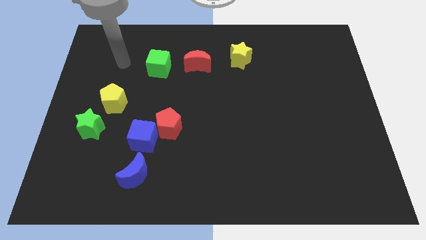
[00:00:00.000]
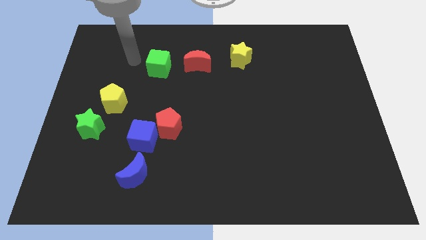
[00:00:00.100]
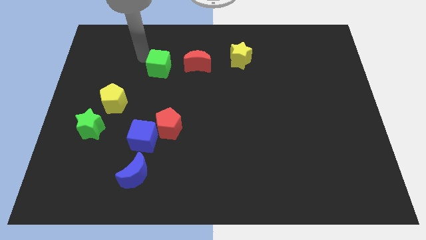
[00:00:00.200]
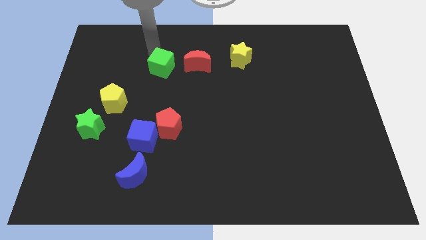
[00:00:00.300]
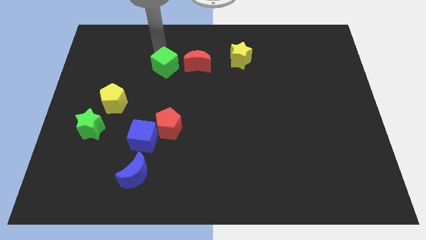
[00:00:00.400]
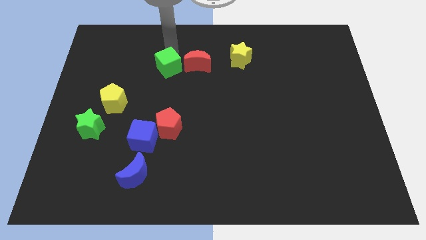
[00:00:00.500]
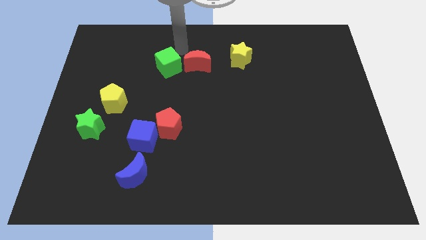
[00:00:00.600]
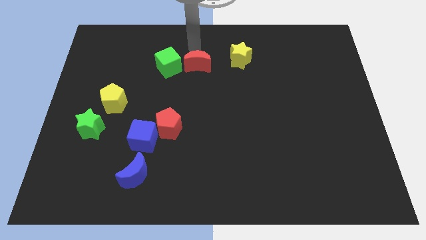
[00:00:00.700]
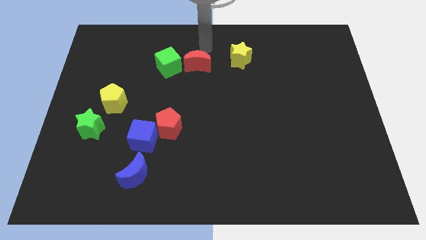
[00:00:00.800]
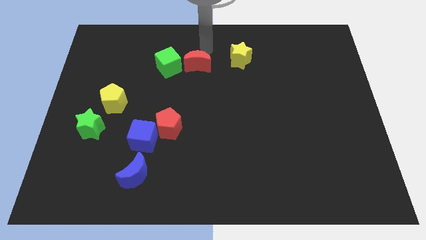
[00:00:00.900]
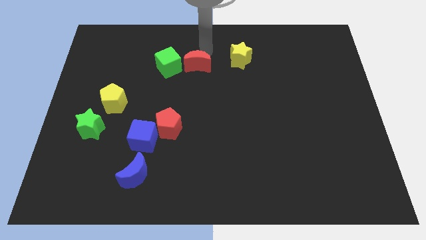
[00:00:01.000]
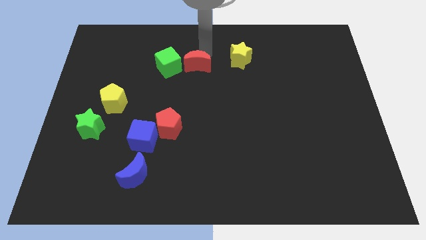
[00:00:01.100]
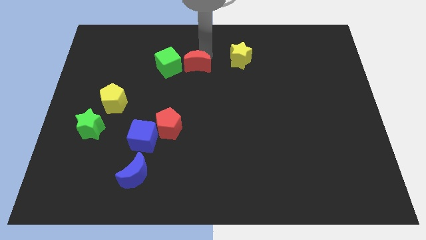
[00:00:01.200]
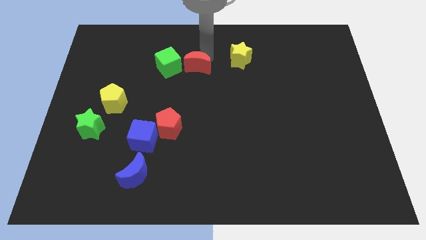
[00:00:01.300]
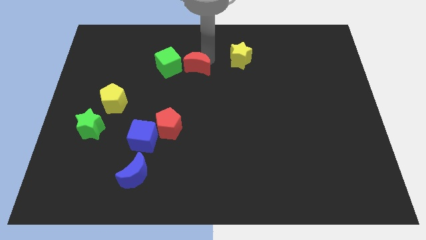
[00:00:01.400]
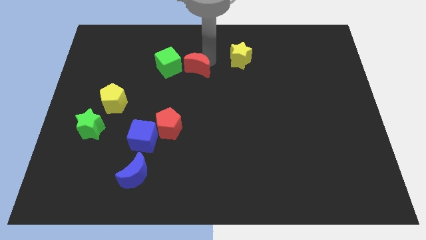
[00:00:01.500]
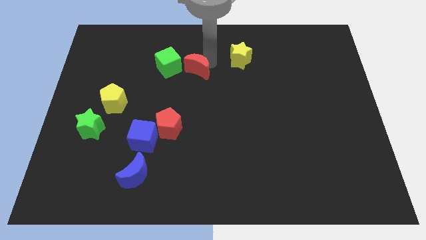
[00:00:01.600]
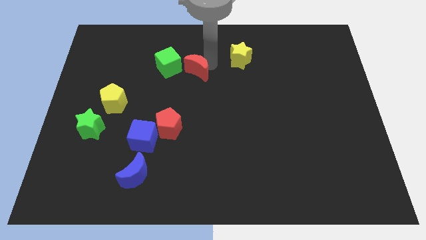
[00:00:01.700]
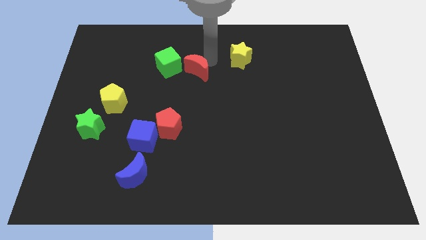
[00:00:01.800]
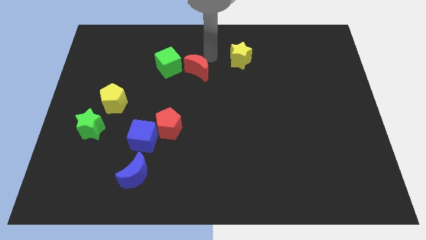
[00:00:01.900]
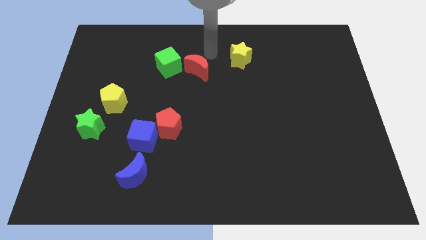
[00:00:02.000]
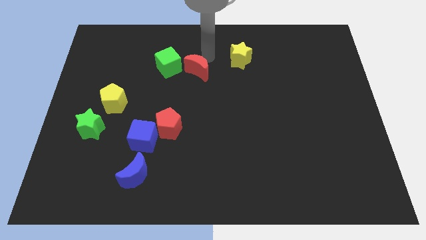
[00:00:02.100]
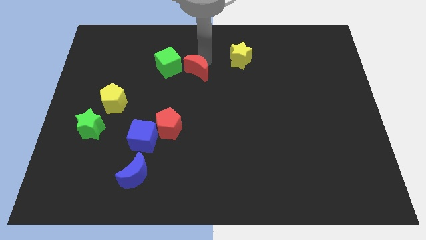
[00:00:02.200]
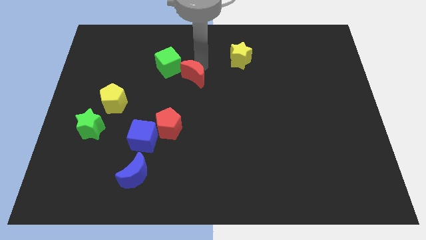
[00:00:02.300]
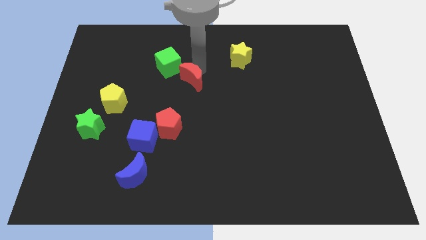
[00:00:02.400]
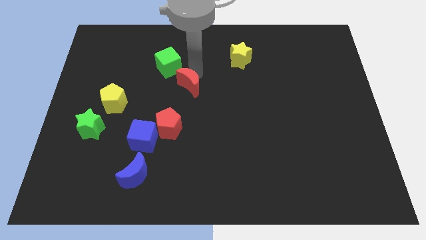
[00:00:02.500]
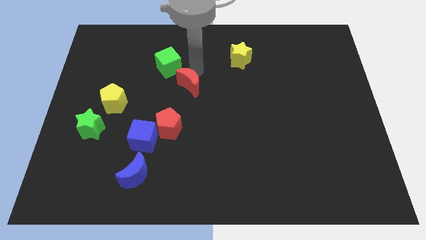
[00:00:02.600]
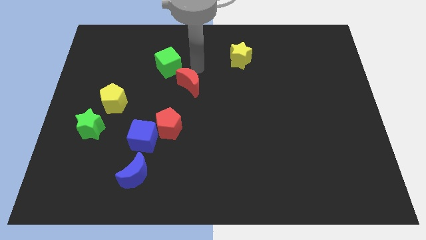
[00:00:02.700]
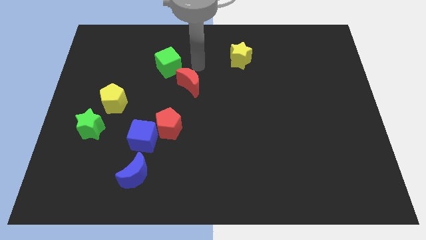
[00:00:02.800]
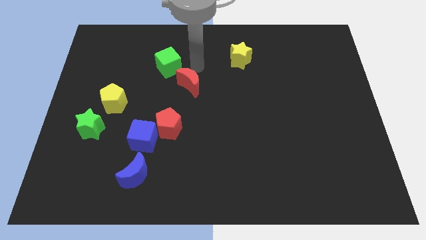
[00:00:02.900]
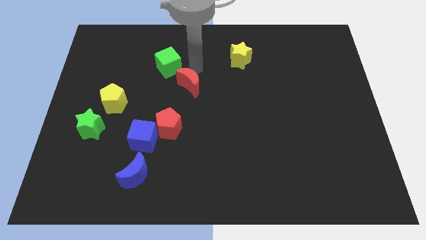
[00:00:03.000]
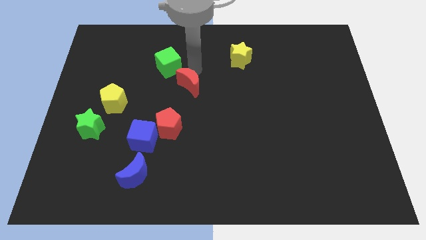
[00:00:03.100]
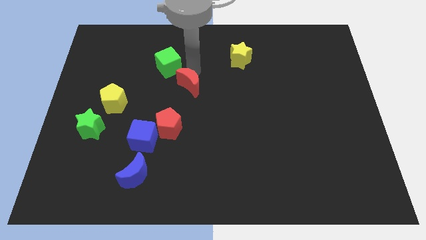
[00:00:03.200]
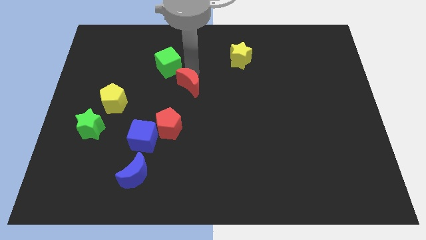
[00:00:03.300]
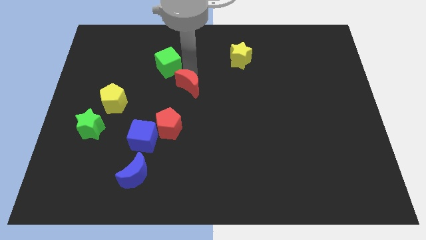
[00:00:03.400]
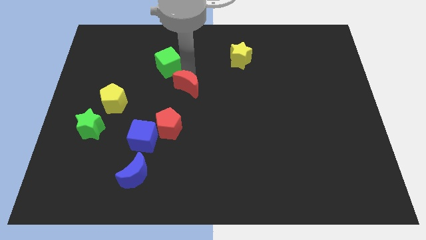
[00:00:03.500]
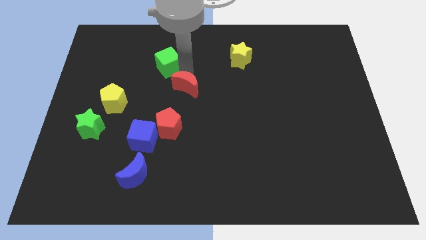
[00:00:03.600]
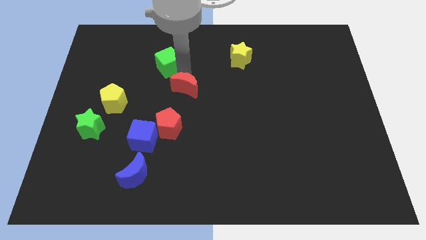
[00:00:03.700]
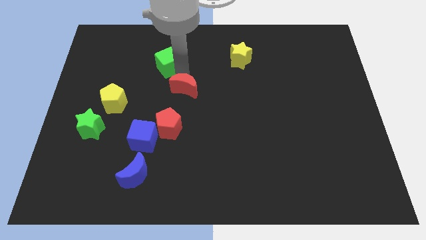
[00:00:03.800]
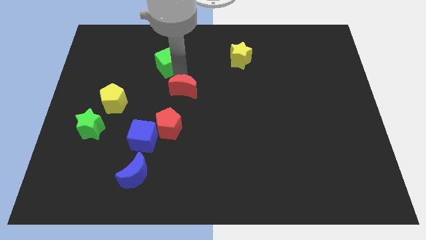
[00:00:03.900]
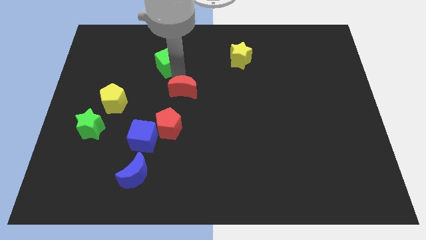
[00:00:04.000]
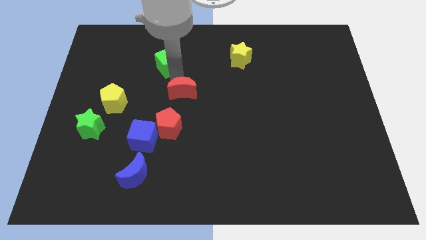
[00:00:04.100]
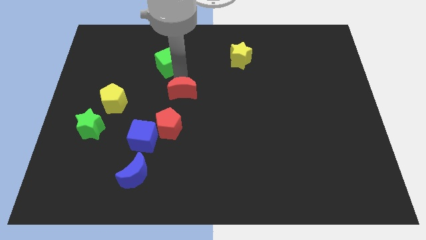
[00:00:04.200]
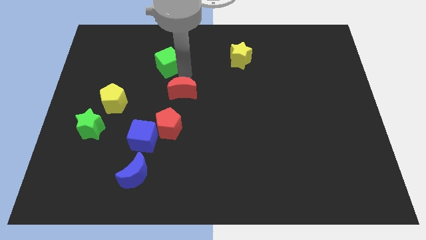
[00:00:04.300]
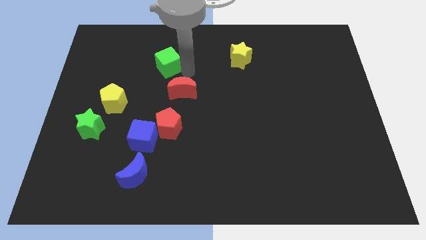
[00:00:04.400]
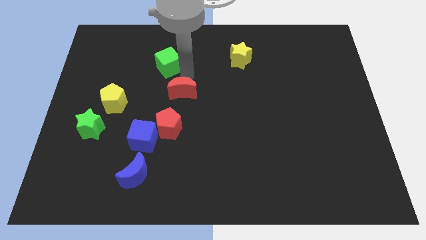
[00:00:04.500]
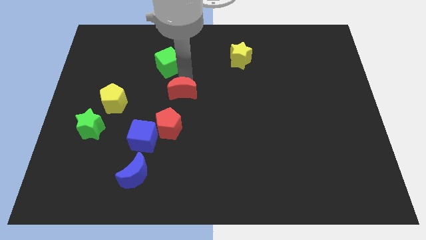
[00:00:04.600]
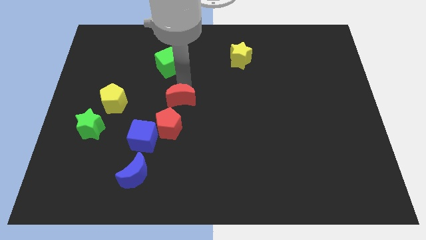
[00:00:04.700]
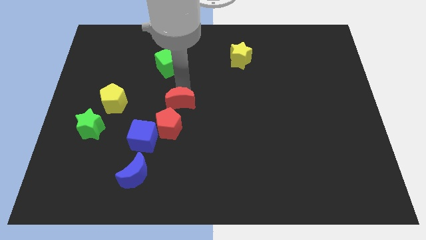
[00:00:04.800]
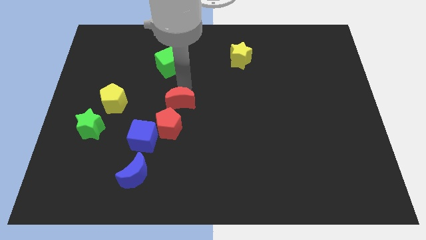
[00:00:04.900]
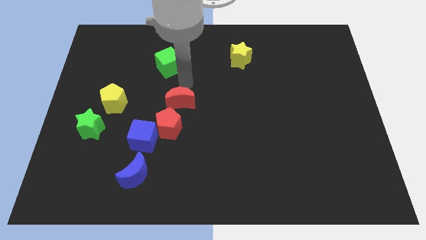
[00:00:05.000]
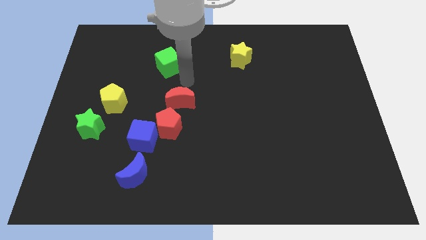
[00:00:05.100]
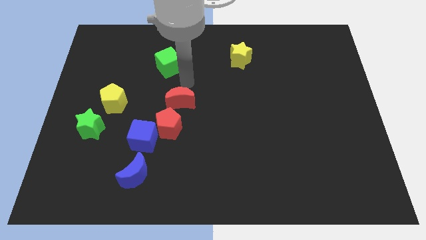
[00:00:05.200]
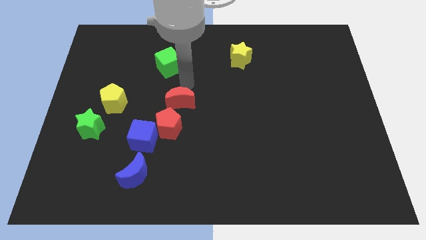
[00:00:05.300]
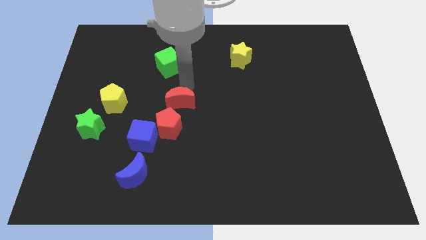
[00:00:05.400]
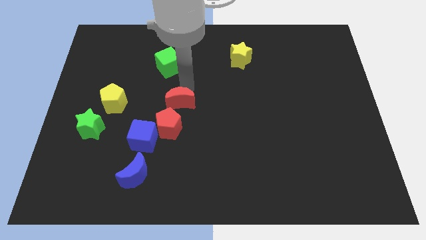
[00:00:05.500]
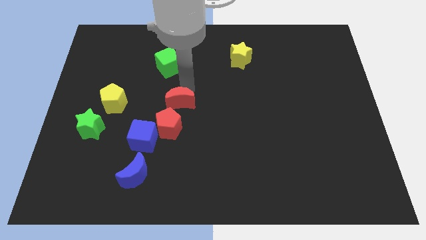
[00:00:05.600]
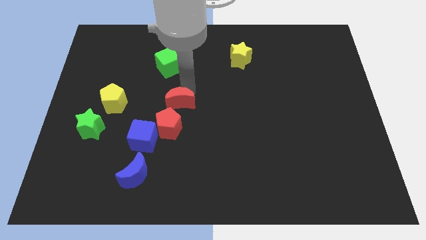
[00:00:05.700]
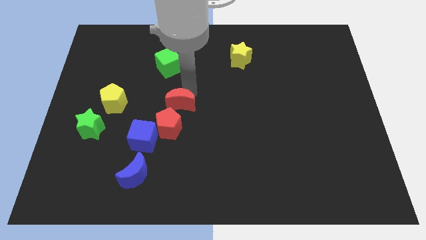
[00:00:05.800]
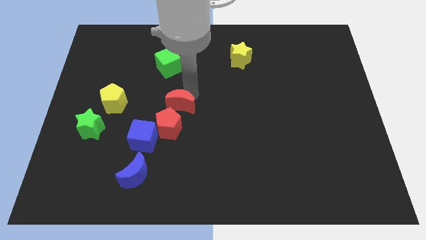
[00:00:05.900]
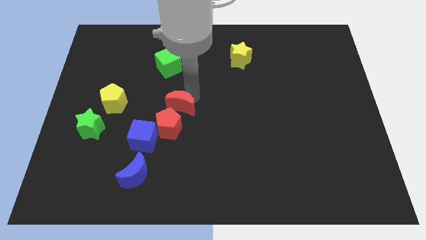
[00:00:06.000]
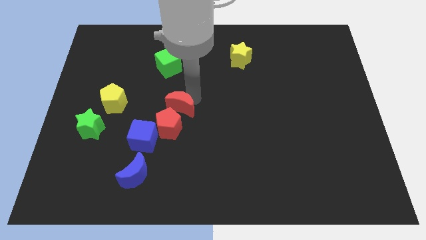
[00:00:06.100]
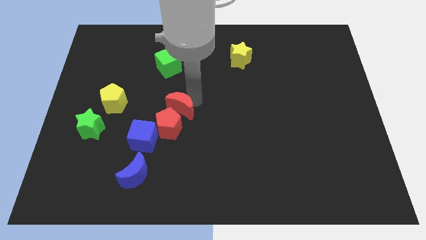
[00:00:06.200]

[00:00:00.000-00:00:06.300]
put the red moon close to the red pentagon

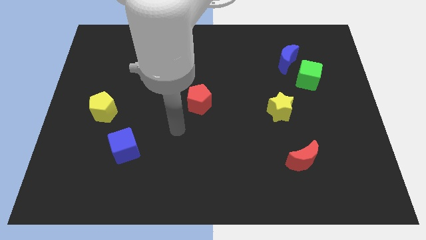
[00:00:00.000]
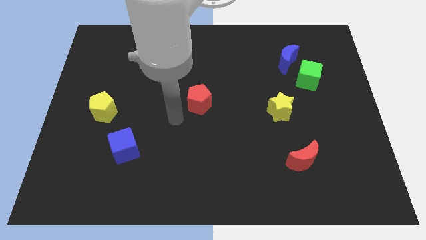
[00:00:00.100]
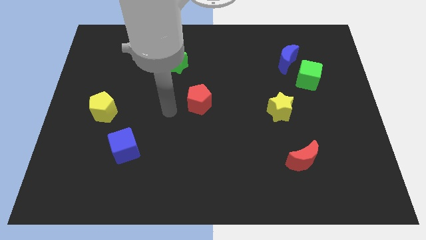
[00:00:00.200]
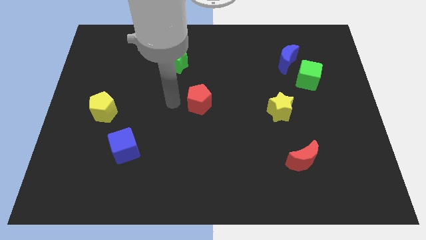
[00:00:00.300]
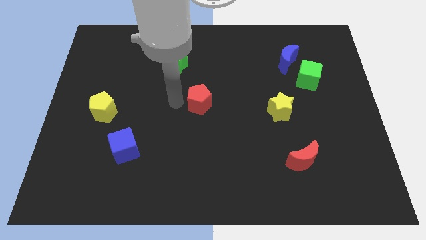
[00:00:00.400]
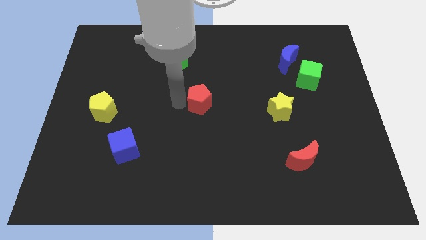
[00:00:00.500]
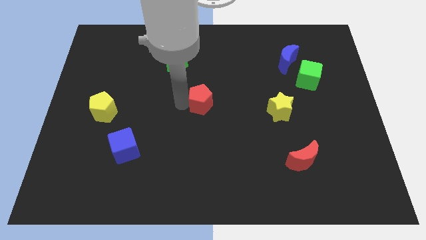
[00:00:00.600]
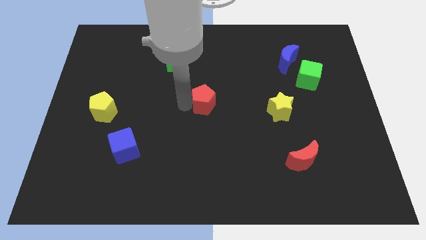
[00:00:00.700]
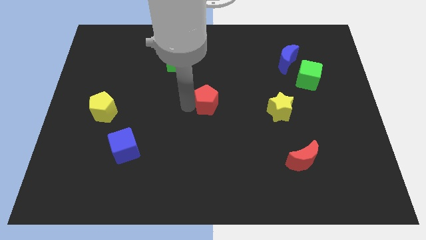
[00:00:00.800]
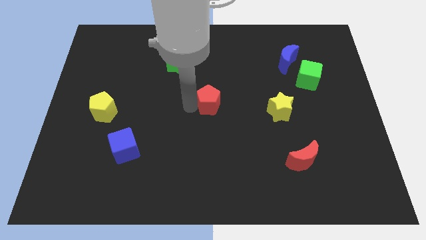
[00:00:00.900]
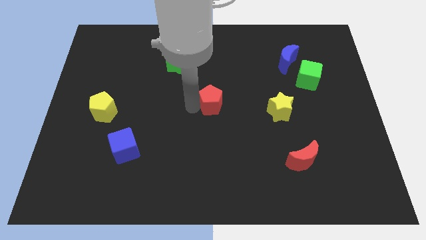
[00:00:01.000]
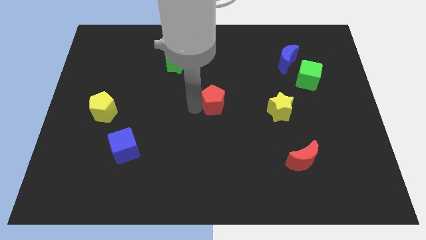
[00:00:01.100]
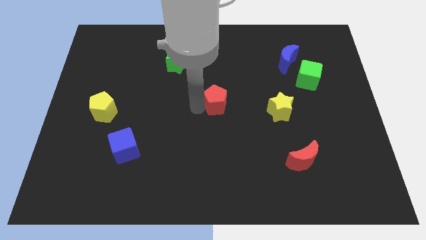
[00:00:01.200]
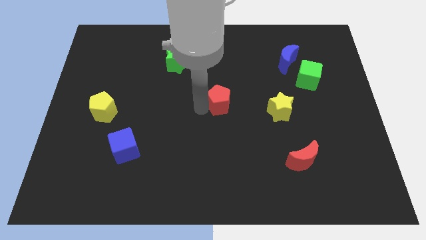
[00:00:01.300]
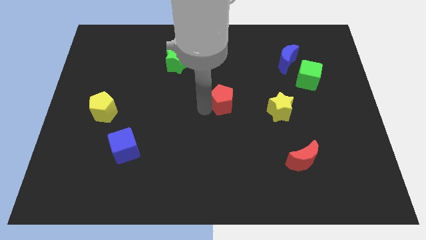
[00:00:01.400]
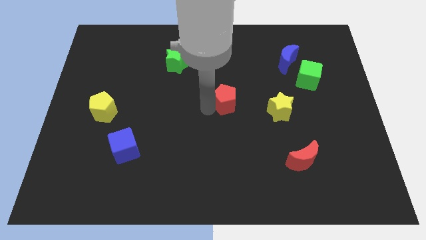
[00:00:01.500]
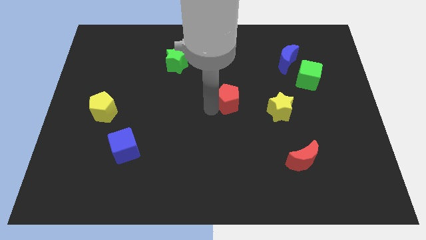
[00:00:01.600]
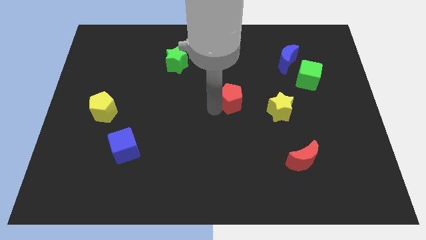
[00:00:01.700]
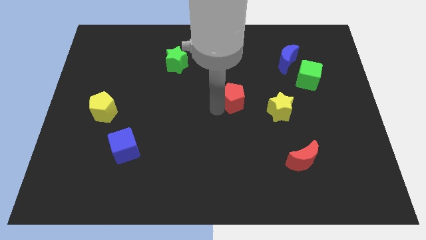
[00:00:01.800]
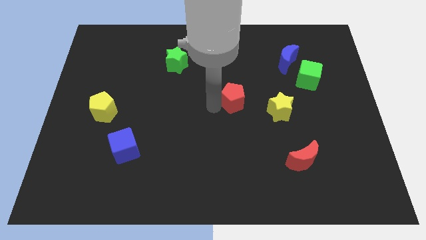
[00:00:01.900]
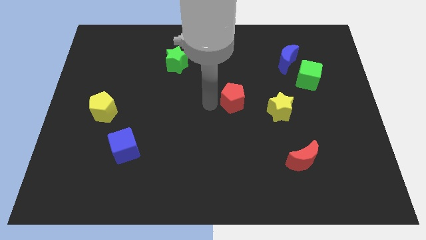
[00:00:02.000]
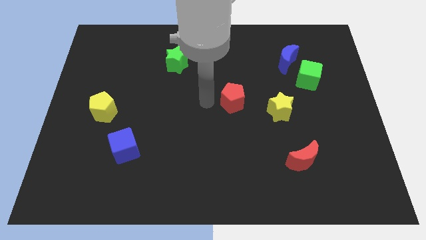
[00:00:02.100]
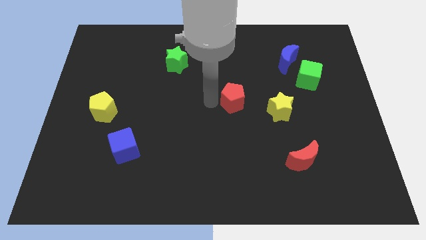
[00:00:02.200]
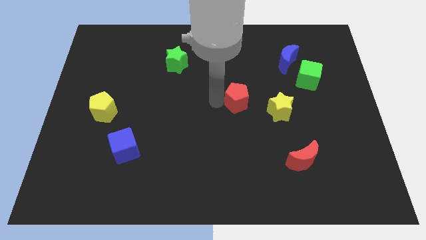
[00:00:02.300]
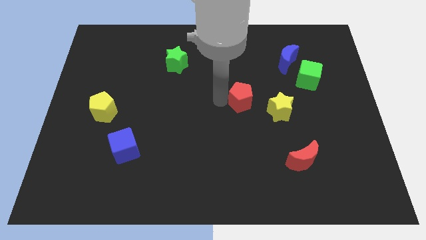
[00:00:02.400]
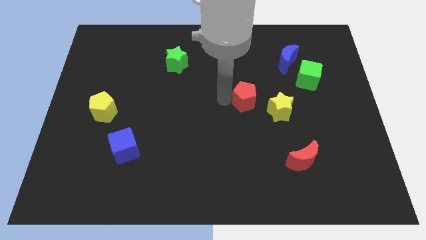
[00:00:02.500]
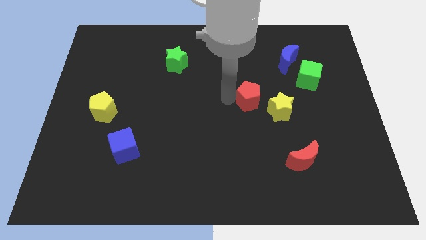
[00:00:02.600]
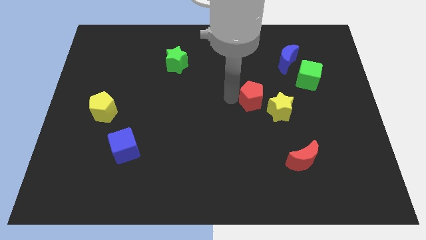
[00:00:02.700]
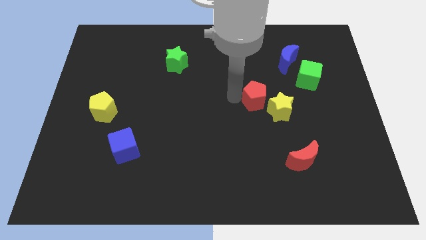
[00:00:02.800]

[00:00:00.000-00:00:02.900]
push the red pentagon towards the yellow star
